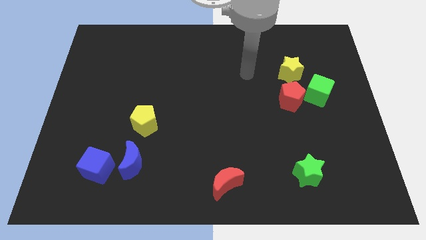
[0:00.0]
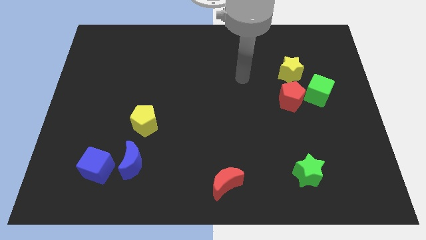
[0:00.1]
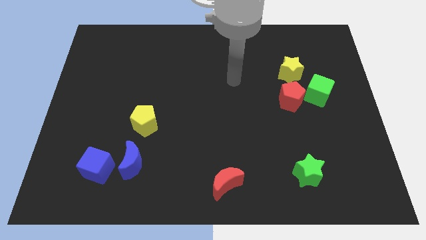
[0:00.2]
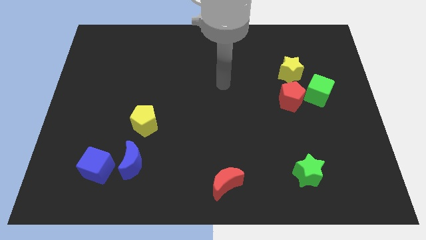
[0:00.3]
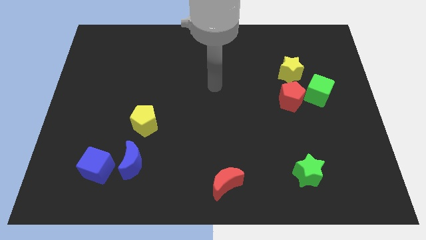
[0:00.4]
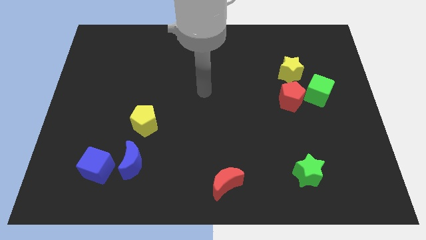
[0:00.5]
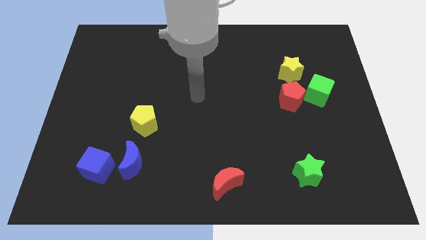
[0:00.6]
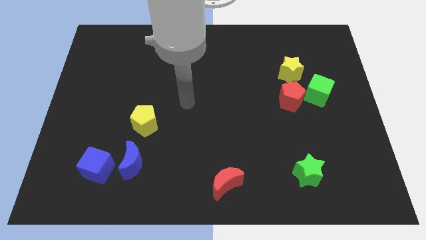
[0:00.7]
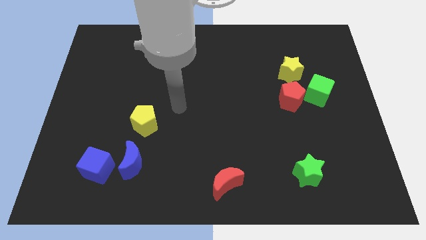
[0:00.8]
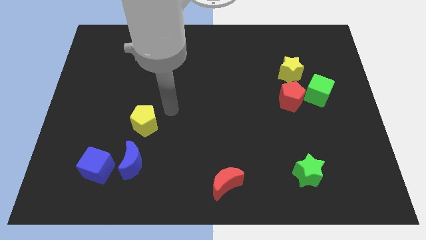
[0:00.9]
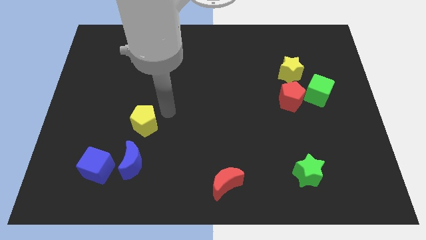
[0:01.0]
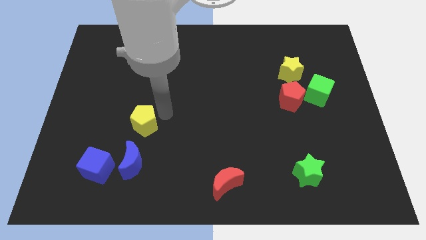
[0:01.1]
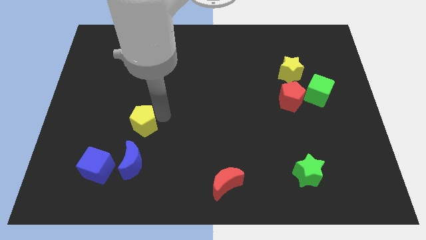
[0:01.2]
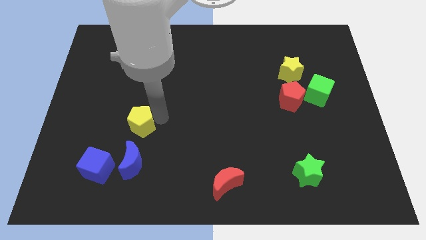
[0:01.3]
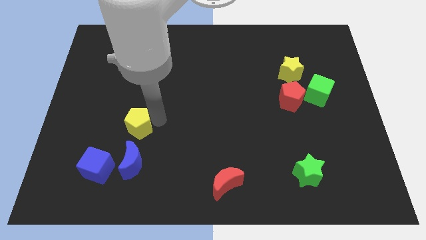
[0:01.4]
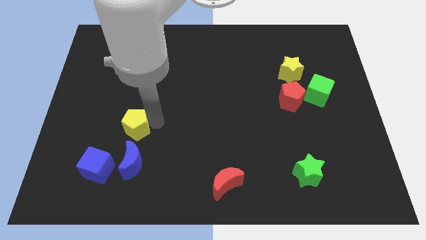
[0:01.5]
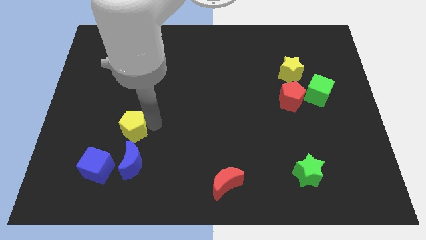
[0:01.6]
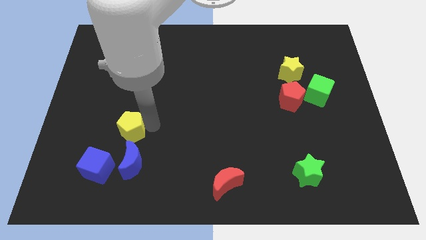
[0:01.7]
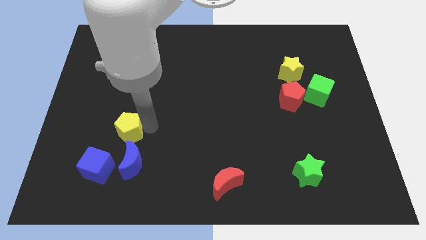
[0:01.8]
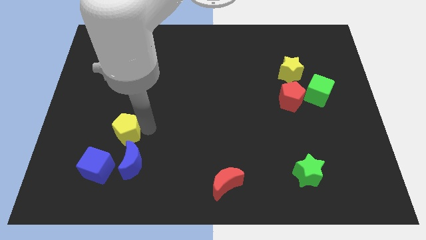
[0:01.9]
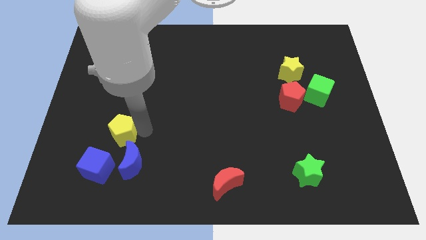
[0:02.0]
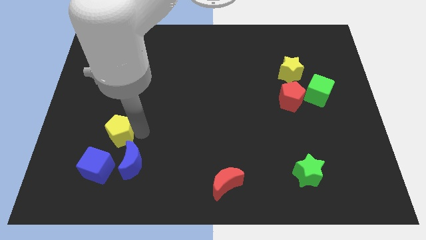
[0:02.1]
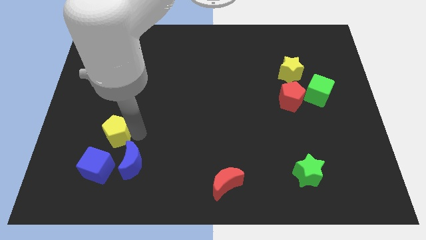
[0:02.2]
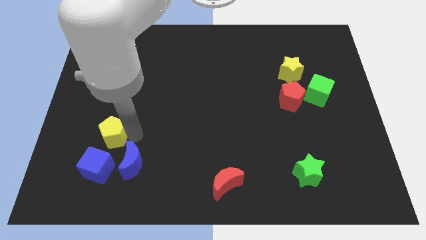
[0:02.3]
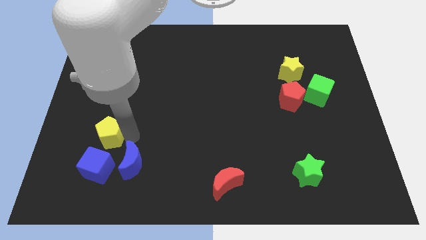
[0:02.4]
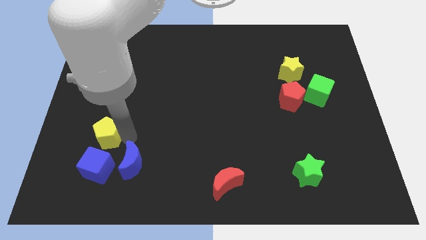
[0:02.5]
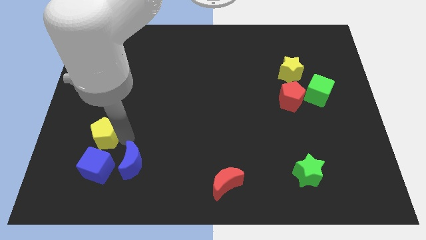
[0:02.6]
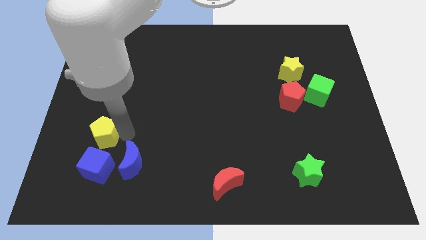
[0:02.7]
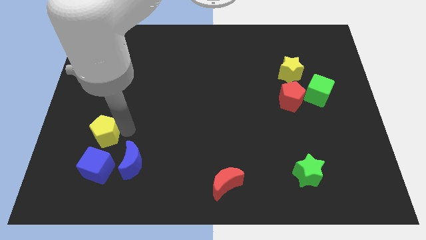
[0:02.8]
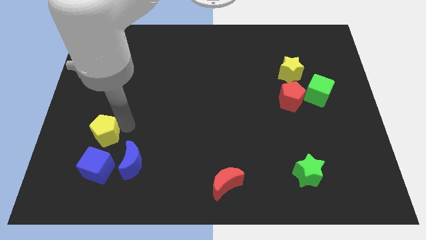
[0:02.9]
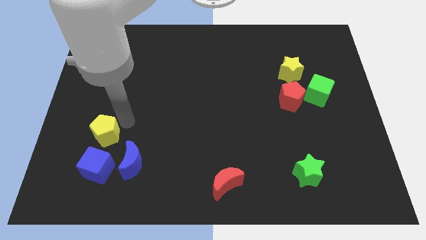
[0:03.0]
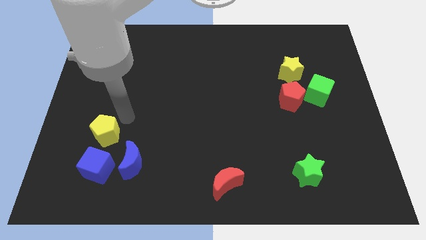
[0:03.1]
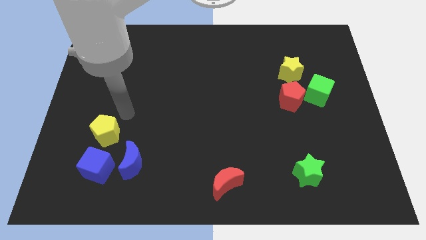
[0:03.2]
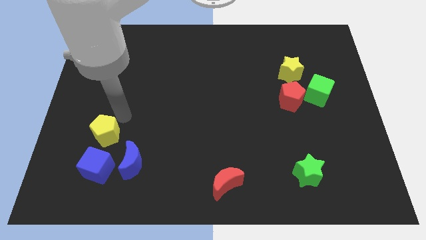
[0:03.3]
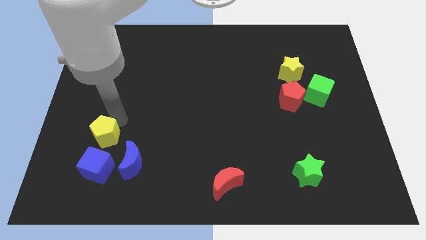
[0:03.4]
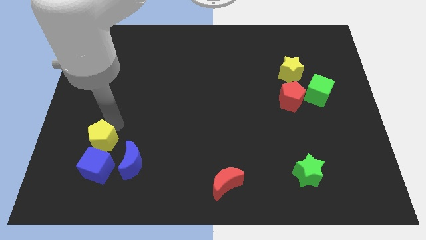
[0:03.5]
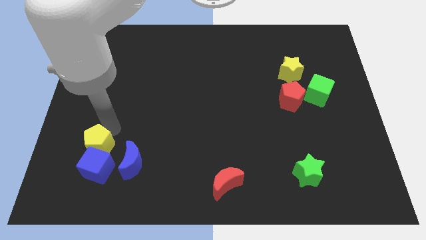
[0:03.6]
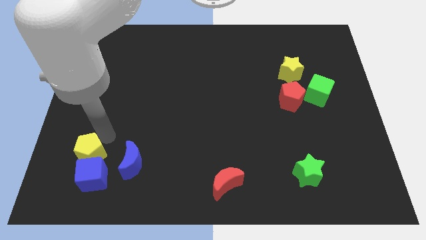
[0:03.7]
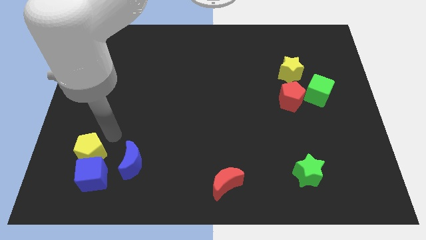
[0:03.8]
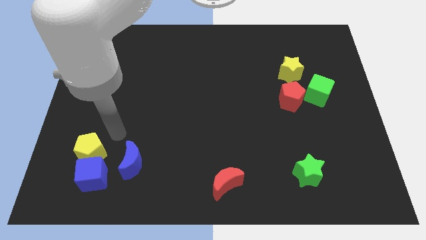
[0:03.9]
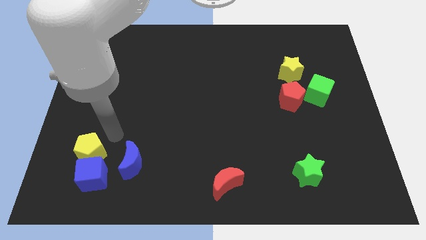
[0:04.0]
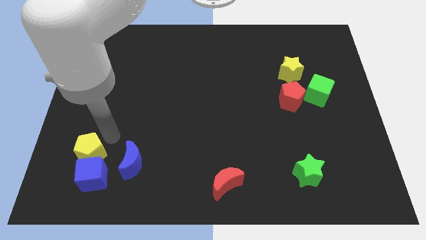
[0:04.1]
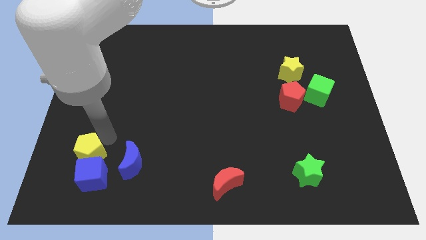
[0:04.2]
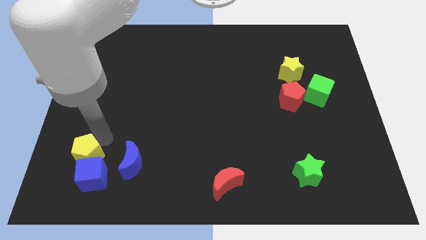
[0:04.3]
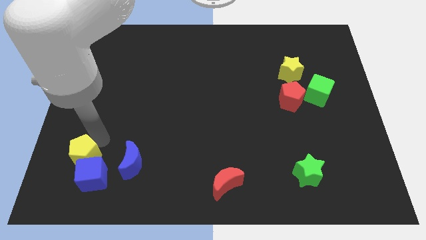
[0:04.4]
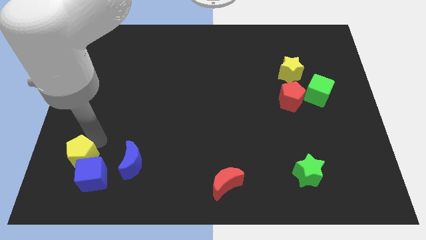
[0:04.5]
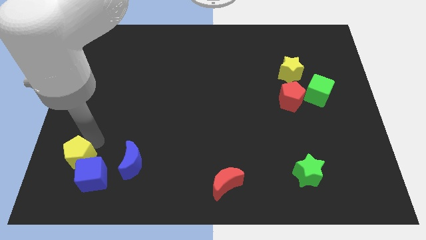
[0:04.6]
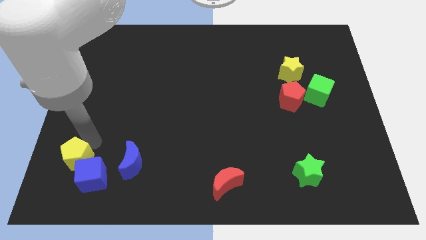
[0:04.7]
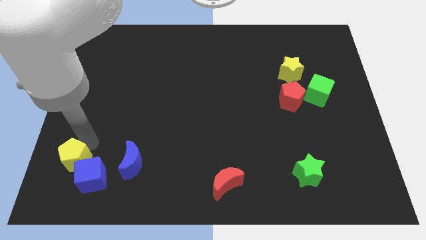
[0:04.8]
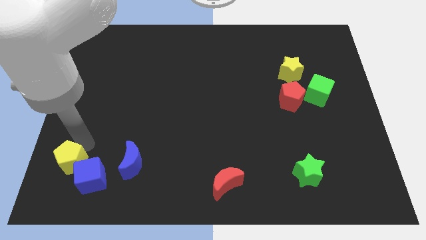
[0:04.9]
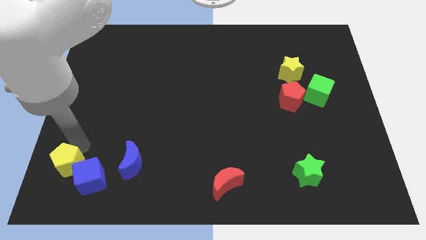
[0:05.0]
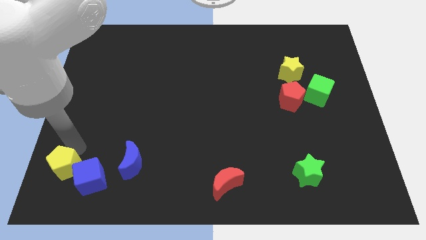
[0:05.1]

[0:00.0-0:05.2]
move the yellow pentagon to the lower left corner

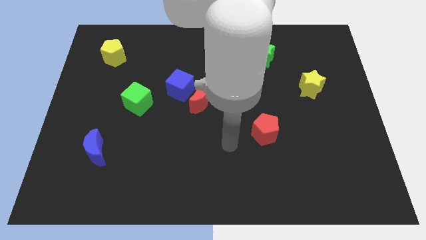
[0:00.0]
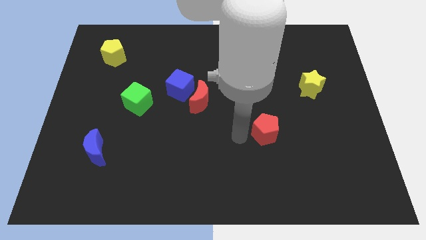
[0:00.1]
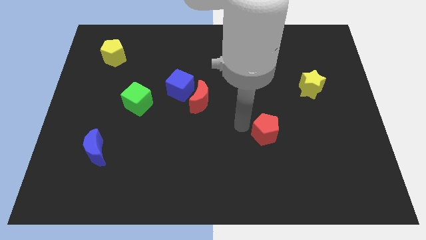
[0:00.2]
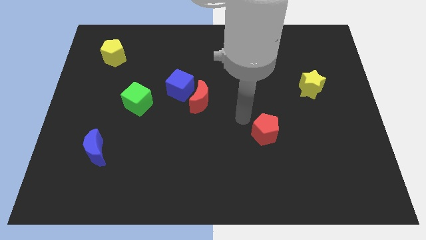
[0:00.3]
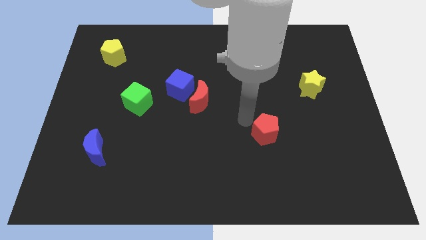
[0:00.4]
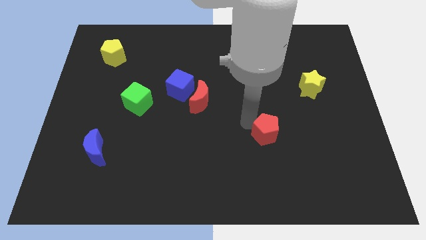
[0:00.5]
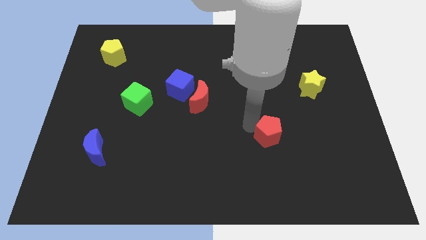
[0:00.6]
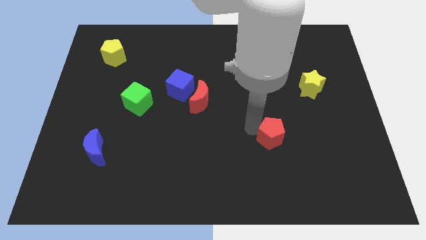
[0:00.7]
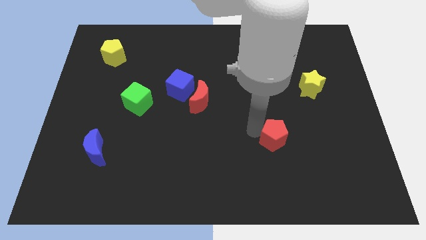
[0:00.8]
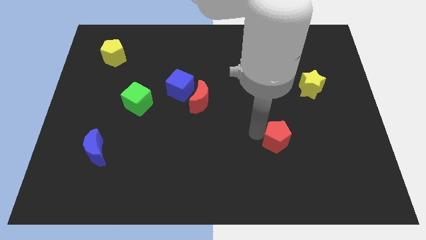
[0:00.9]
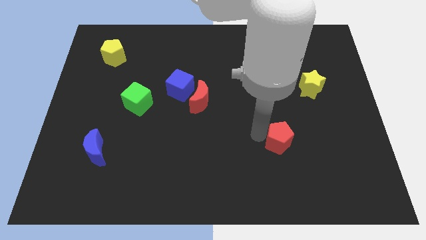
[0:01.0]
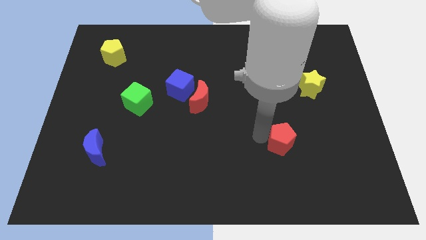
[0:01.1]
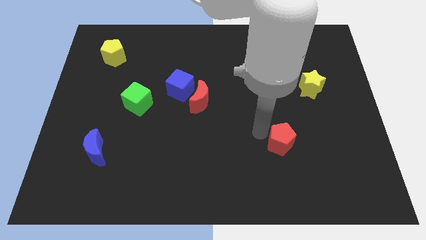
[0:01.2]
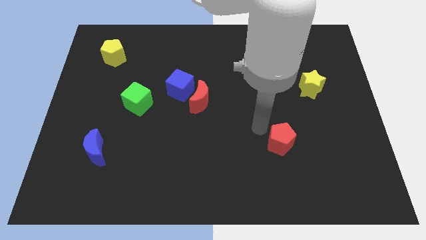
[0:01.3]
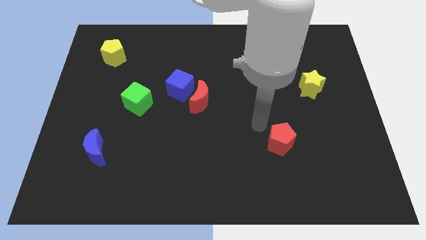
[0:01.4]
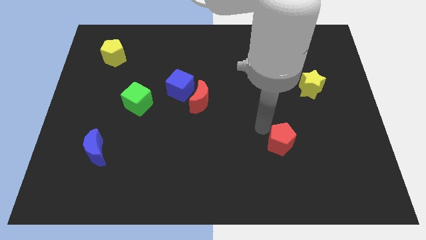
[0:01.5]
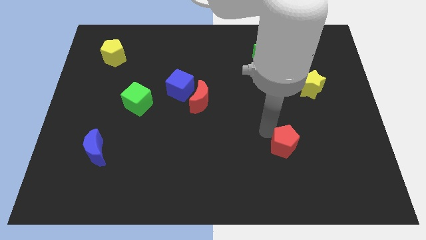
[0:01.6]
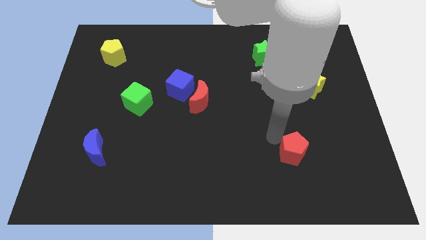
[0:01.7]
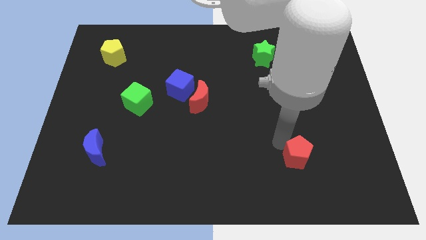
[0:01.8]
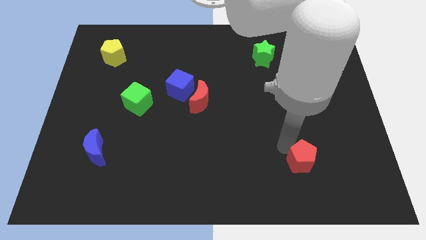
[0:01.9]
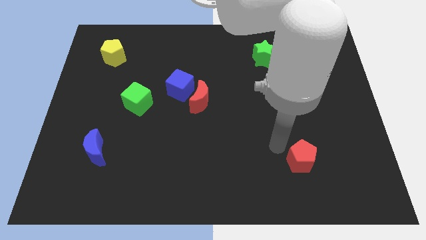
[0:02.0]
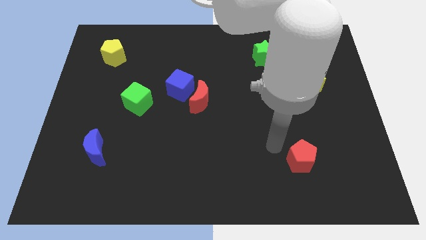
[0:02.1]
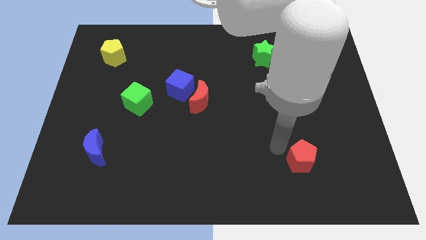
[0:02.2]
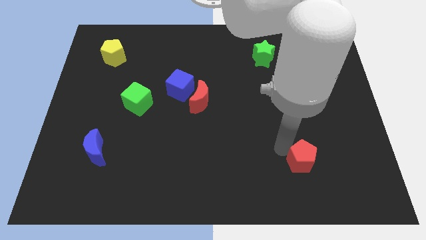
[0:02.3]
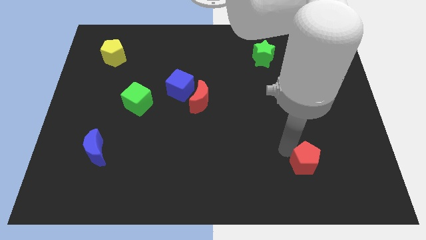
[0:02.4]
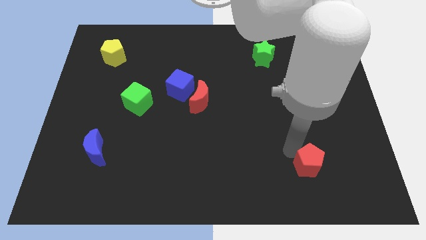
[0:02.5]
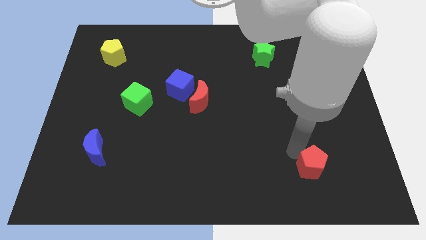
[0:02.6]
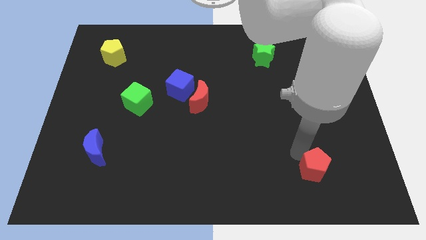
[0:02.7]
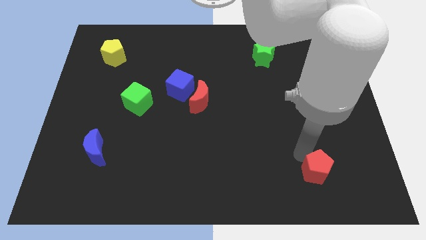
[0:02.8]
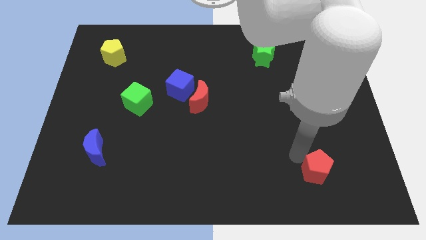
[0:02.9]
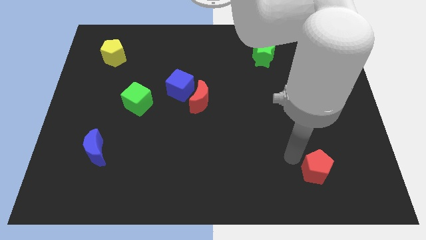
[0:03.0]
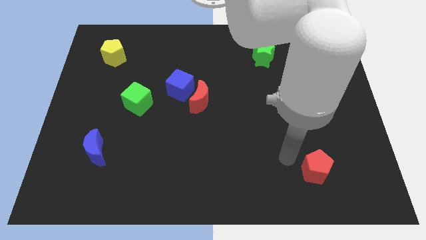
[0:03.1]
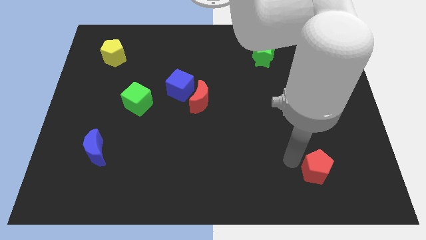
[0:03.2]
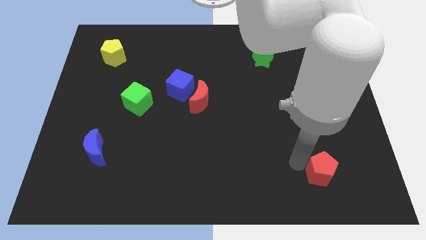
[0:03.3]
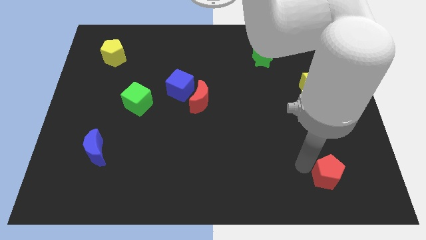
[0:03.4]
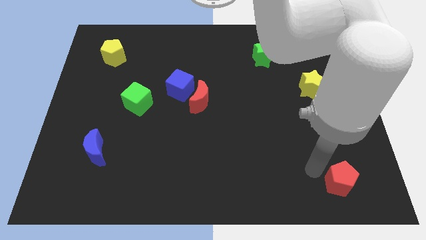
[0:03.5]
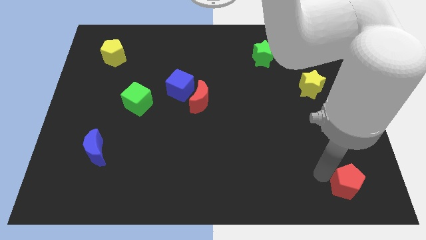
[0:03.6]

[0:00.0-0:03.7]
move the red pentagon to the bottom right corner
